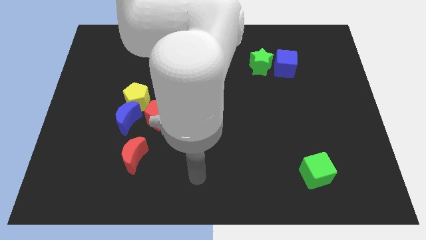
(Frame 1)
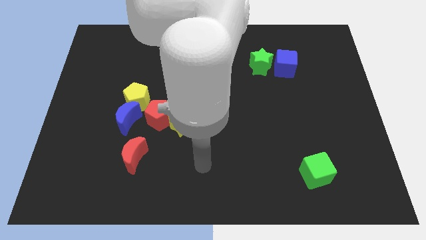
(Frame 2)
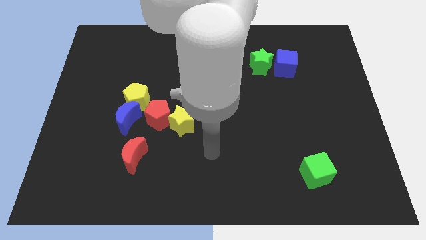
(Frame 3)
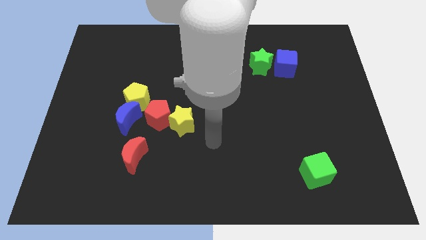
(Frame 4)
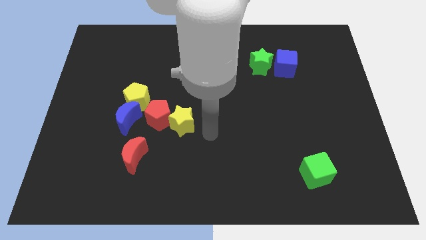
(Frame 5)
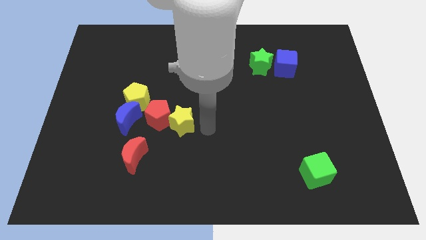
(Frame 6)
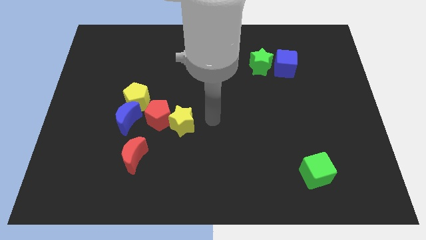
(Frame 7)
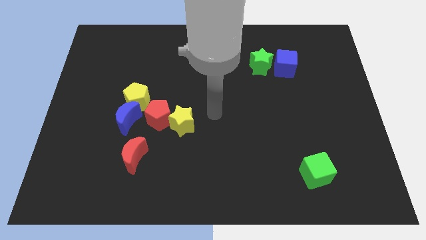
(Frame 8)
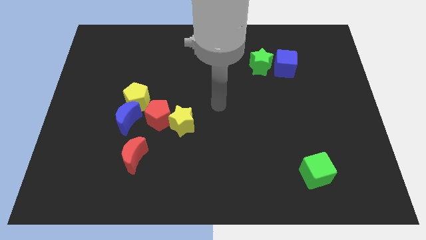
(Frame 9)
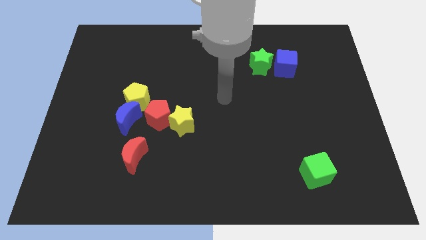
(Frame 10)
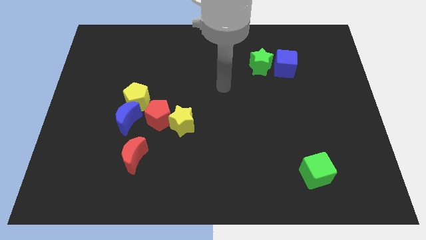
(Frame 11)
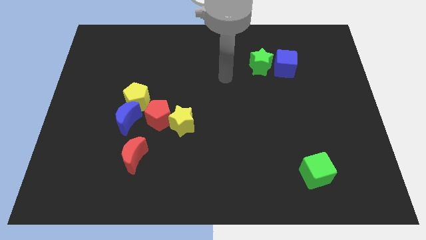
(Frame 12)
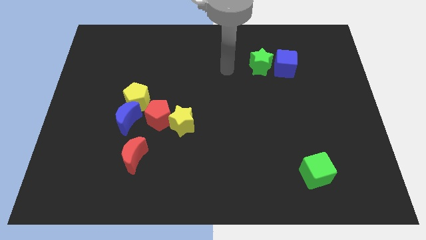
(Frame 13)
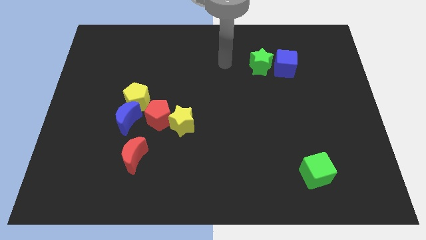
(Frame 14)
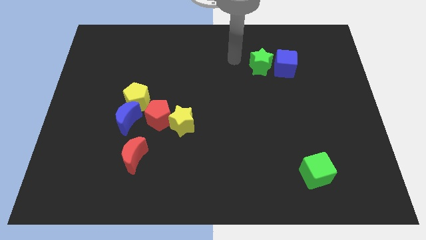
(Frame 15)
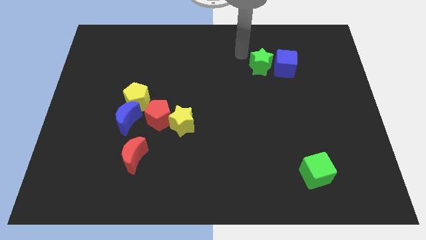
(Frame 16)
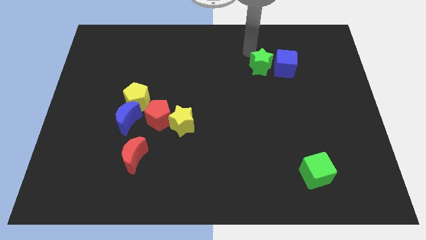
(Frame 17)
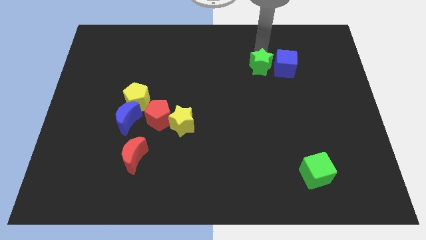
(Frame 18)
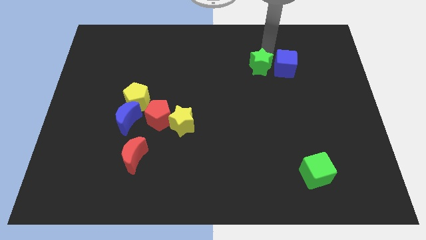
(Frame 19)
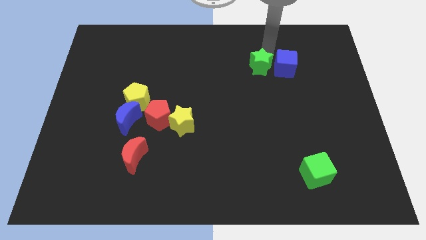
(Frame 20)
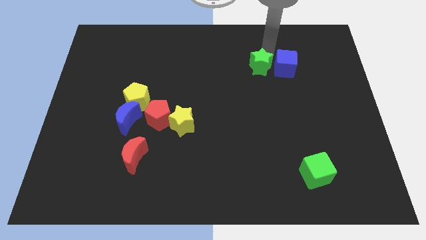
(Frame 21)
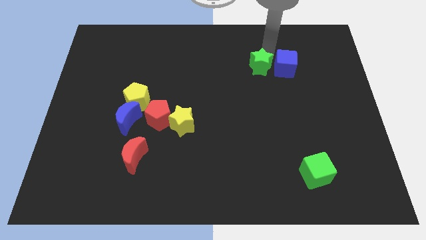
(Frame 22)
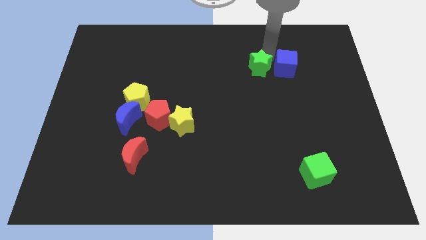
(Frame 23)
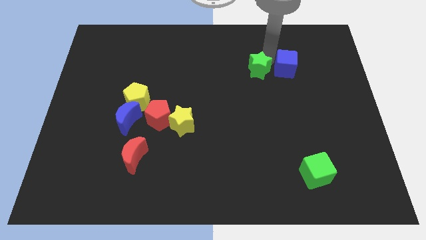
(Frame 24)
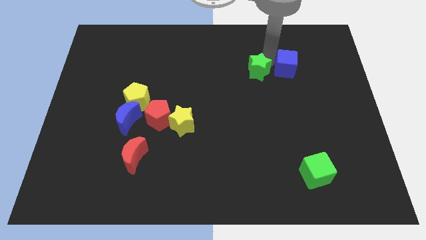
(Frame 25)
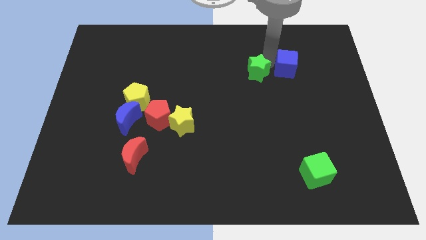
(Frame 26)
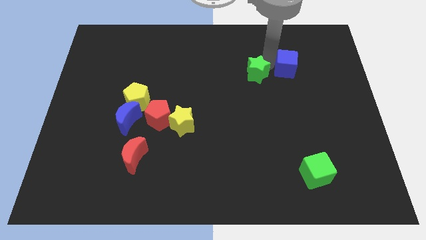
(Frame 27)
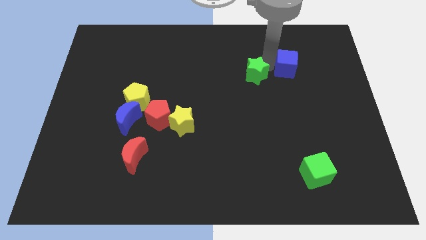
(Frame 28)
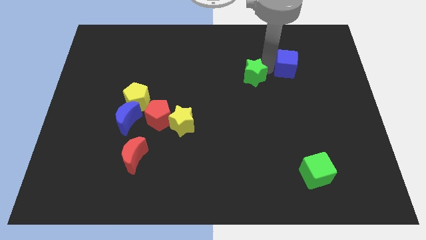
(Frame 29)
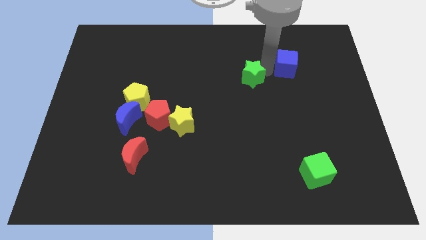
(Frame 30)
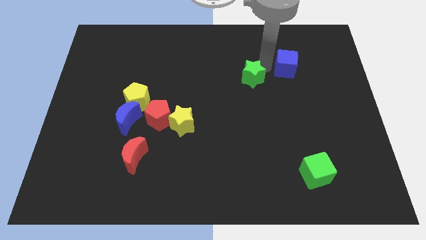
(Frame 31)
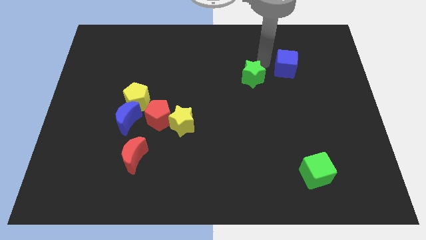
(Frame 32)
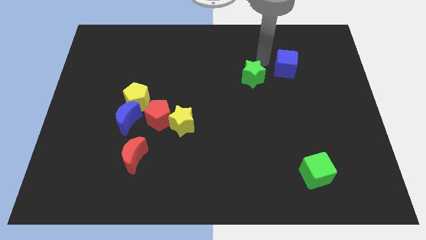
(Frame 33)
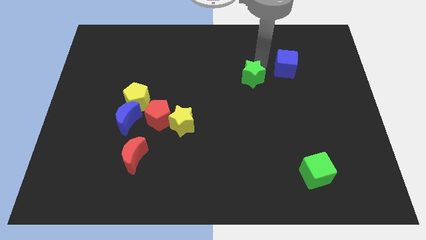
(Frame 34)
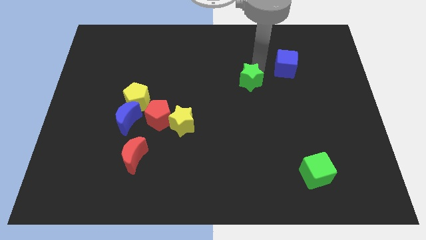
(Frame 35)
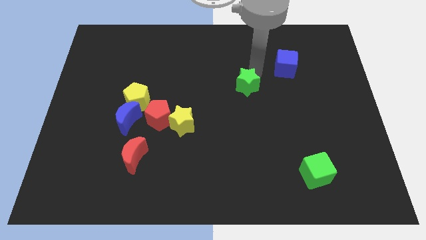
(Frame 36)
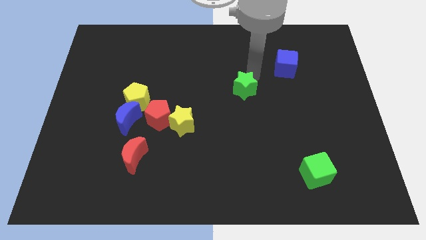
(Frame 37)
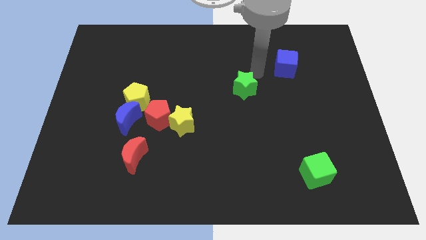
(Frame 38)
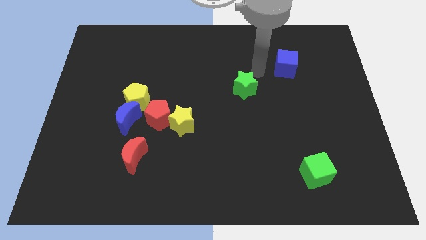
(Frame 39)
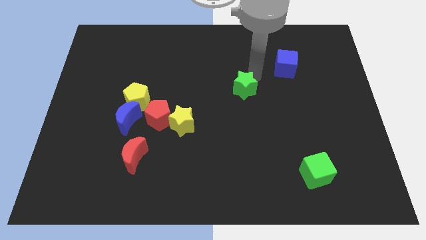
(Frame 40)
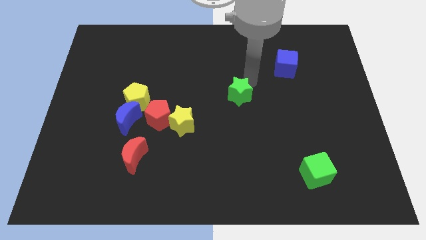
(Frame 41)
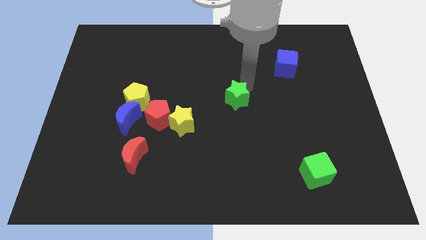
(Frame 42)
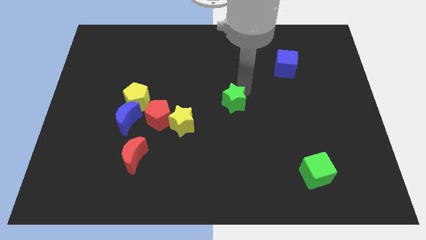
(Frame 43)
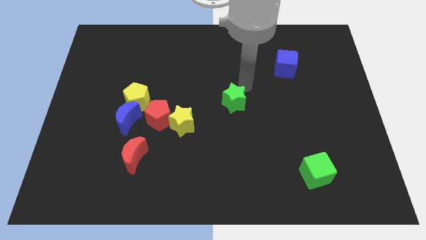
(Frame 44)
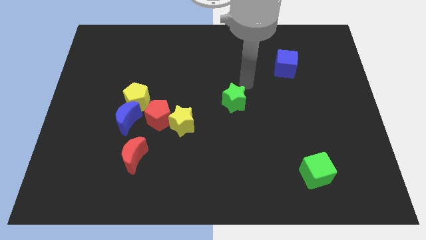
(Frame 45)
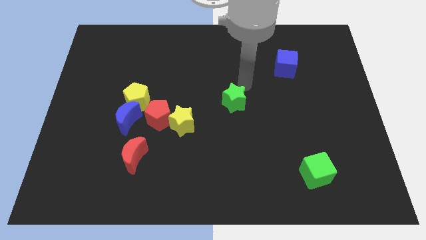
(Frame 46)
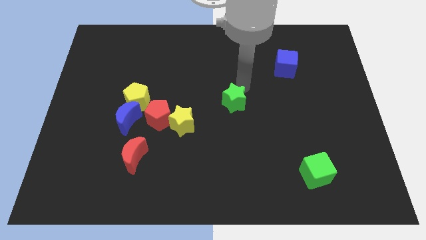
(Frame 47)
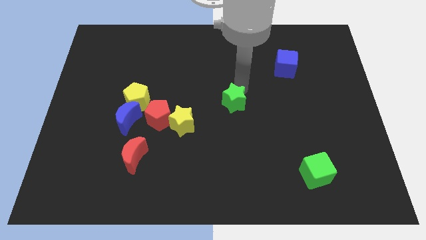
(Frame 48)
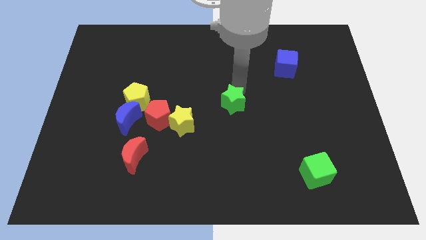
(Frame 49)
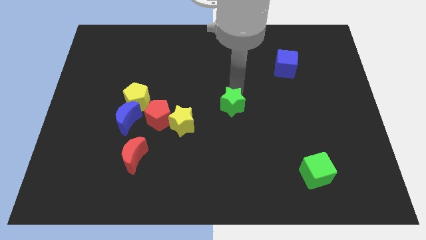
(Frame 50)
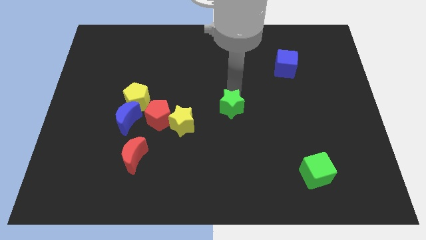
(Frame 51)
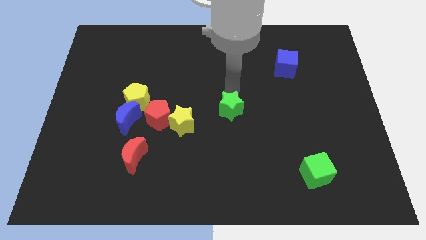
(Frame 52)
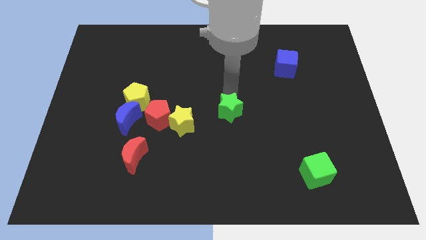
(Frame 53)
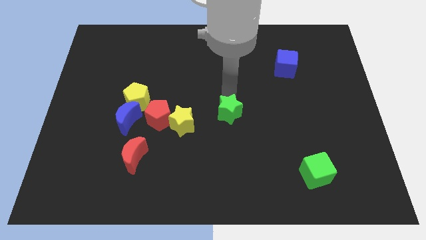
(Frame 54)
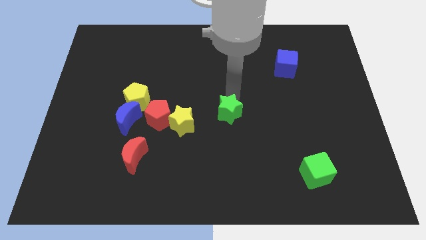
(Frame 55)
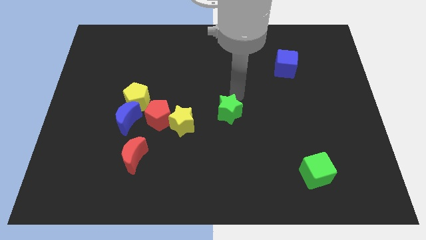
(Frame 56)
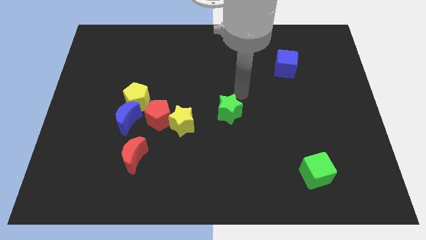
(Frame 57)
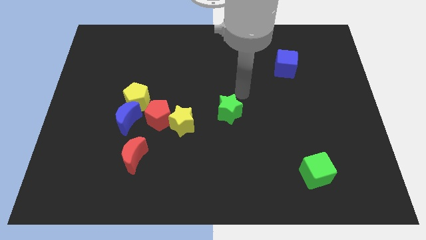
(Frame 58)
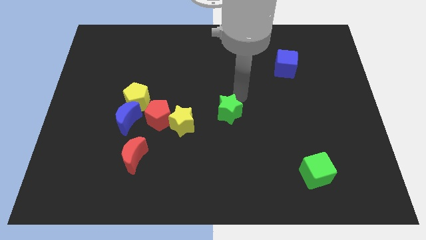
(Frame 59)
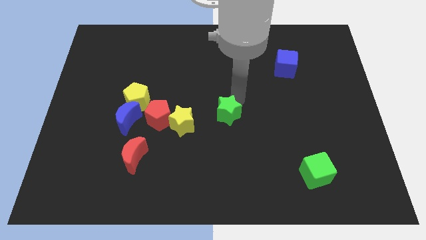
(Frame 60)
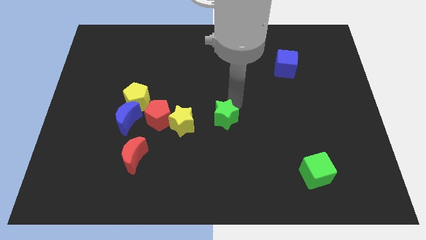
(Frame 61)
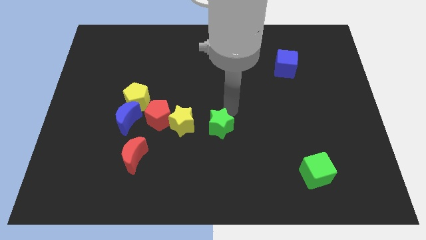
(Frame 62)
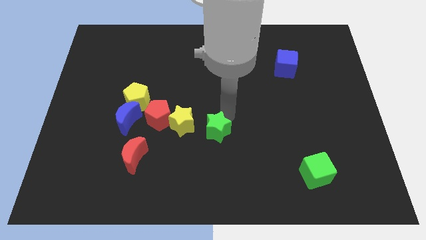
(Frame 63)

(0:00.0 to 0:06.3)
slide the green star diagonally down and to the right of the yellow star

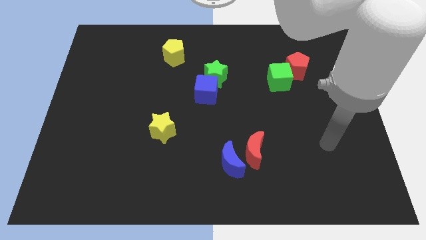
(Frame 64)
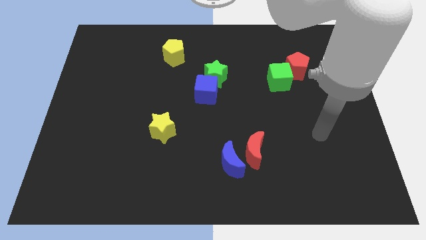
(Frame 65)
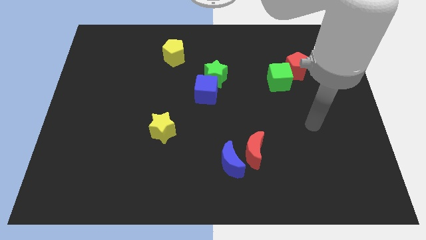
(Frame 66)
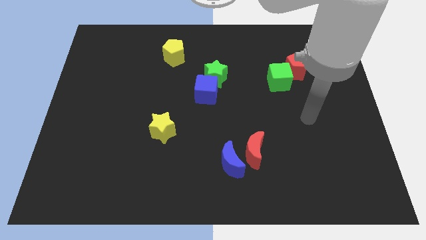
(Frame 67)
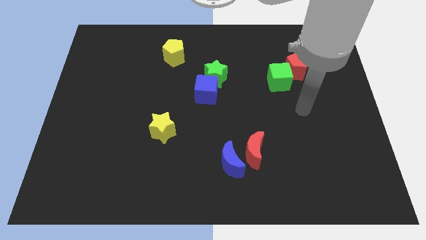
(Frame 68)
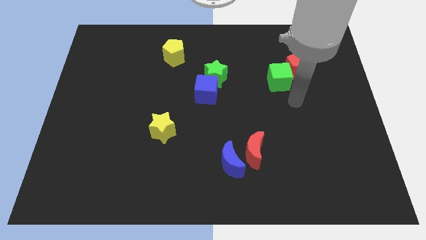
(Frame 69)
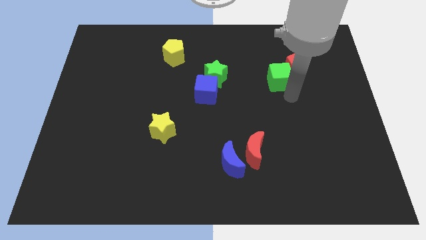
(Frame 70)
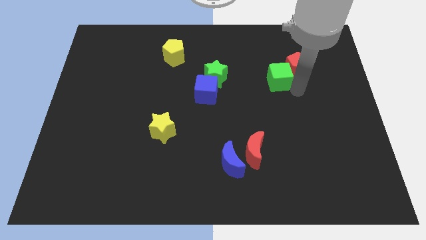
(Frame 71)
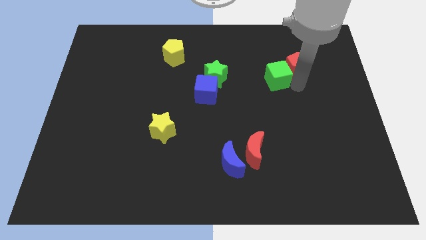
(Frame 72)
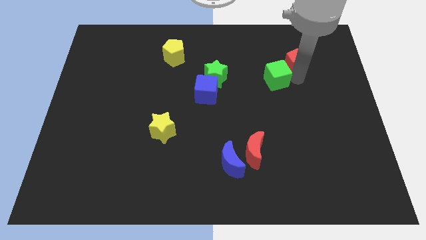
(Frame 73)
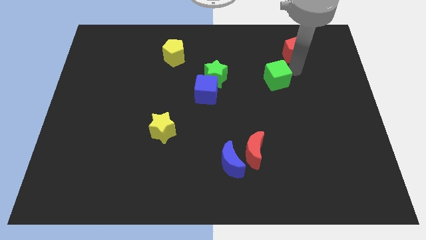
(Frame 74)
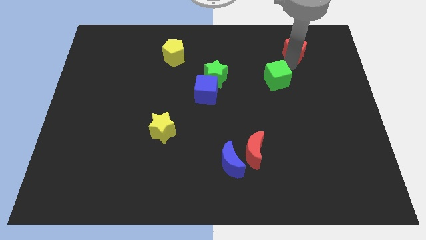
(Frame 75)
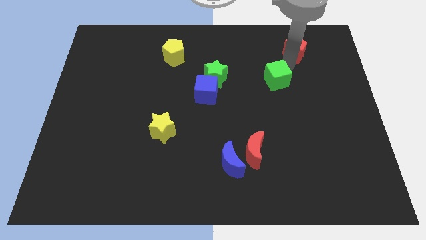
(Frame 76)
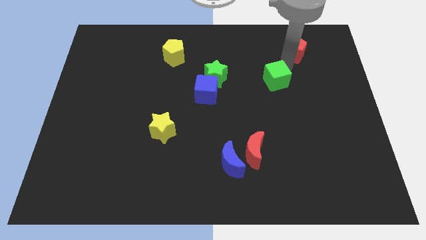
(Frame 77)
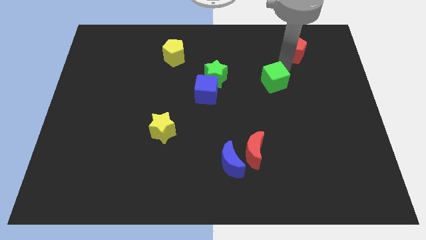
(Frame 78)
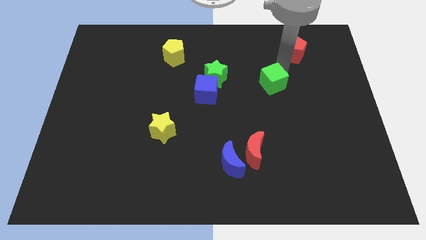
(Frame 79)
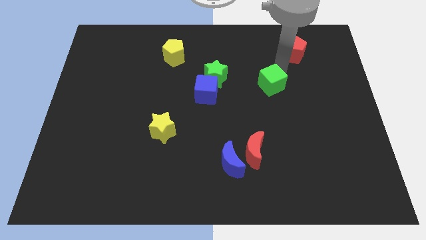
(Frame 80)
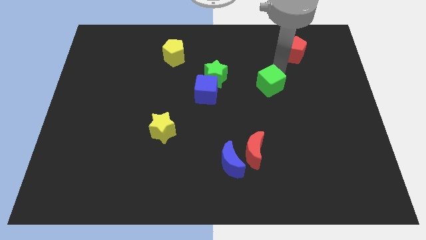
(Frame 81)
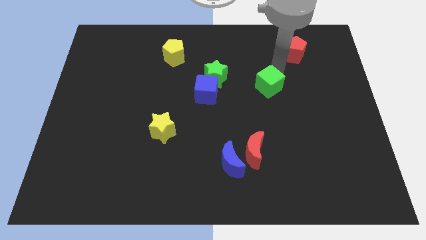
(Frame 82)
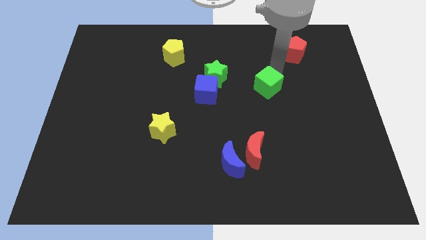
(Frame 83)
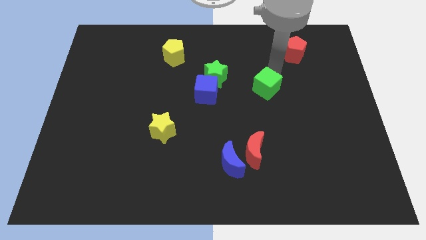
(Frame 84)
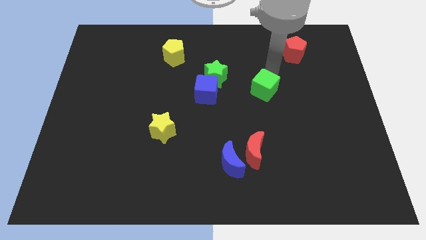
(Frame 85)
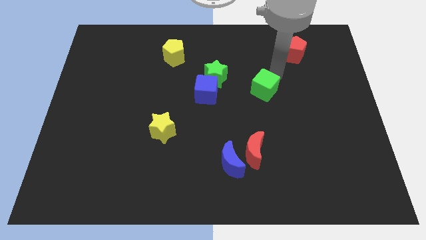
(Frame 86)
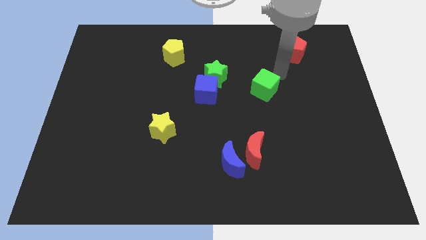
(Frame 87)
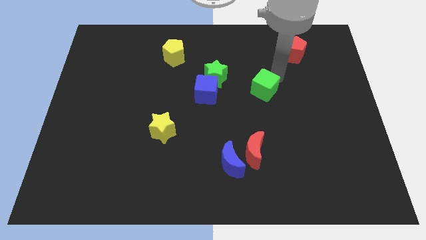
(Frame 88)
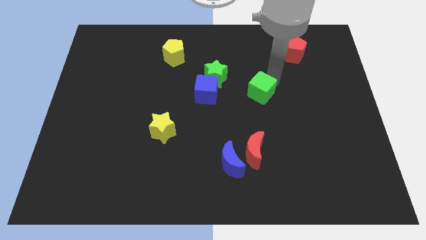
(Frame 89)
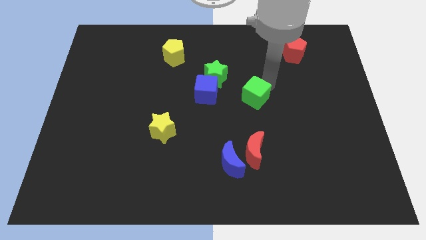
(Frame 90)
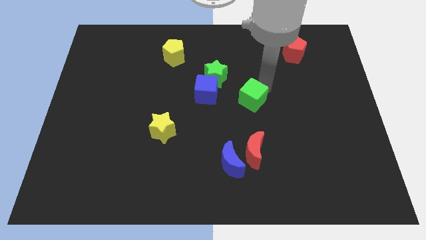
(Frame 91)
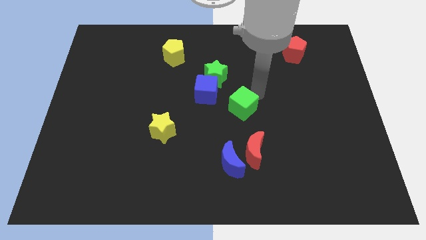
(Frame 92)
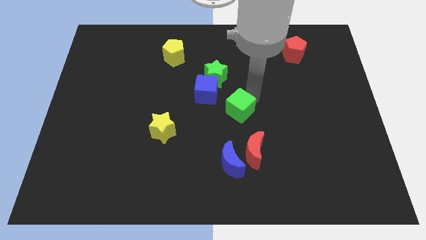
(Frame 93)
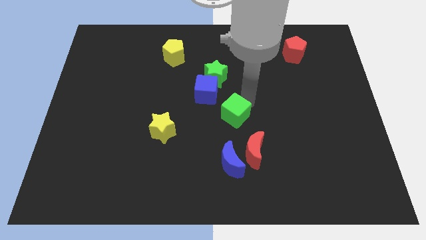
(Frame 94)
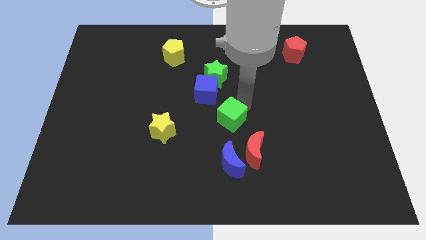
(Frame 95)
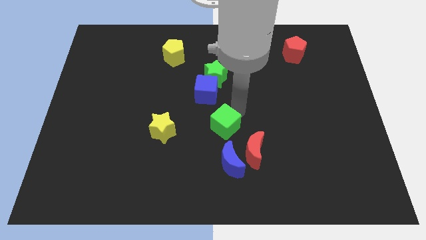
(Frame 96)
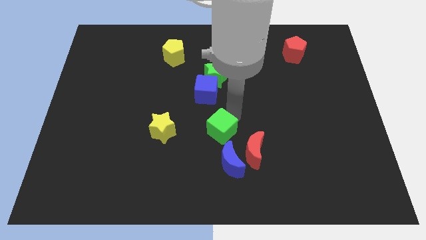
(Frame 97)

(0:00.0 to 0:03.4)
slide the green cube to the top left side of the blue moon
